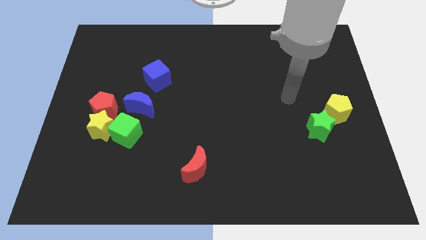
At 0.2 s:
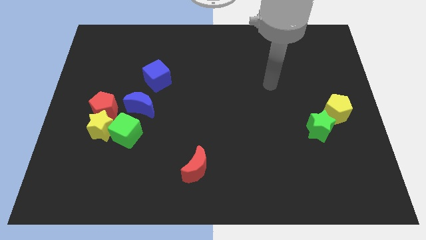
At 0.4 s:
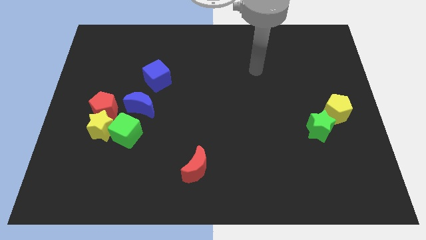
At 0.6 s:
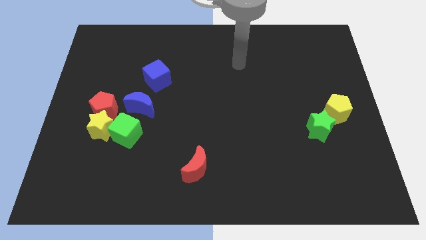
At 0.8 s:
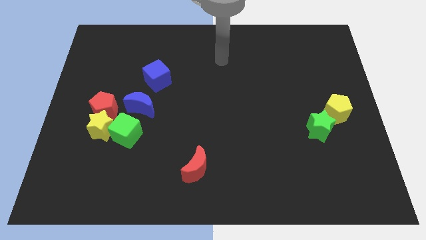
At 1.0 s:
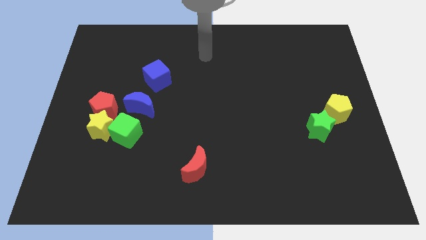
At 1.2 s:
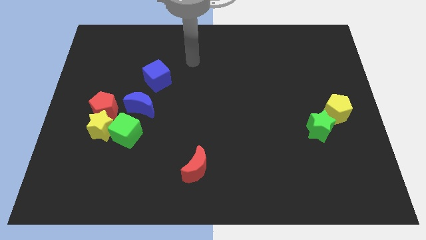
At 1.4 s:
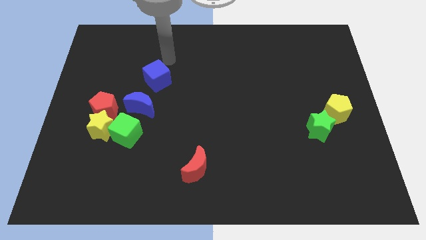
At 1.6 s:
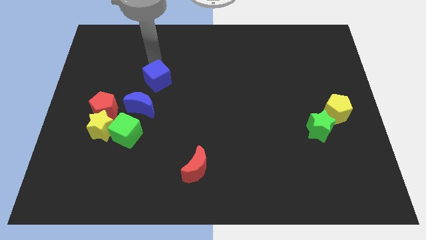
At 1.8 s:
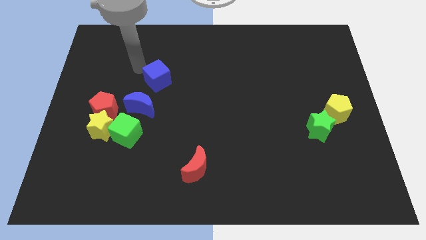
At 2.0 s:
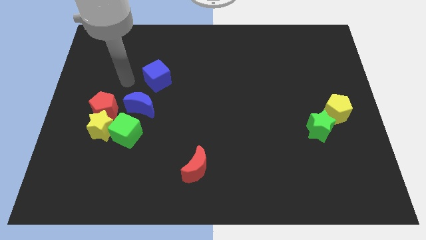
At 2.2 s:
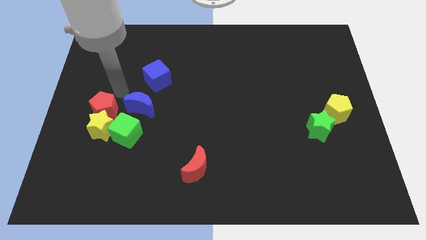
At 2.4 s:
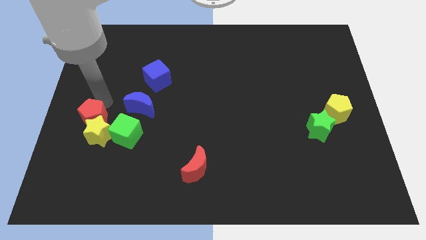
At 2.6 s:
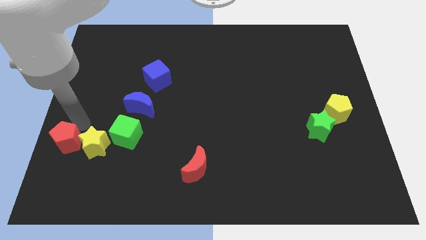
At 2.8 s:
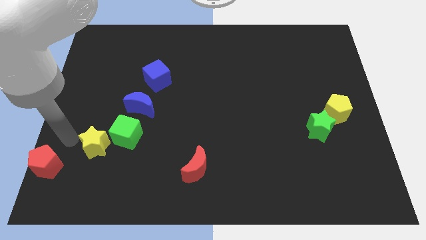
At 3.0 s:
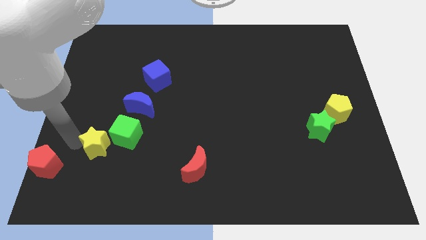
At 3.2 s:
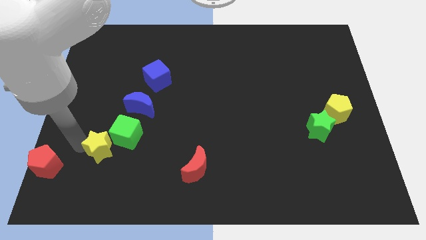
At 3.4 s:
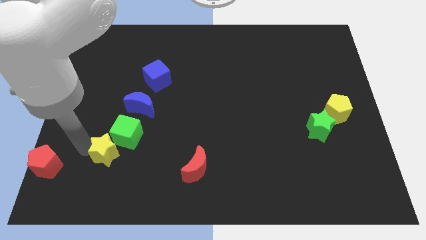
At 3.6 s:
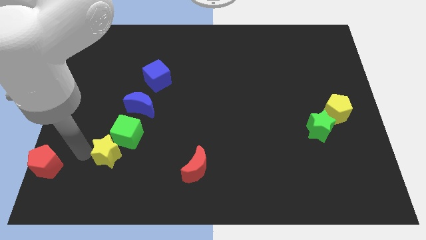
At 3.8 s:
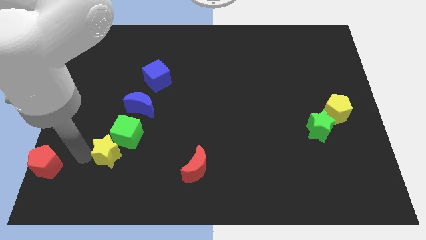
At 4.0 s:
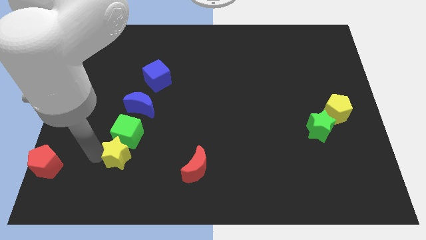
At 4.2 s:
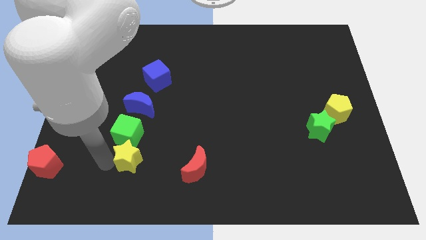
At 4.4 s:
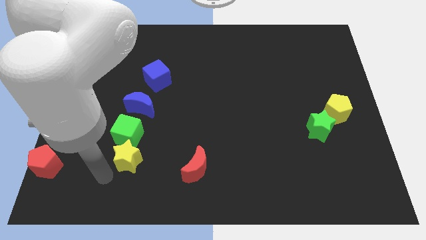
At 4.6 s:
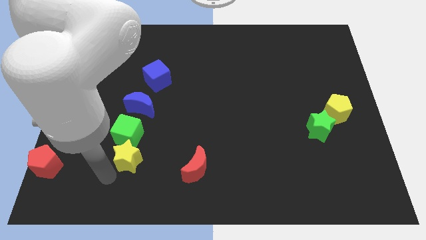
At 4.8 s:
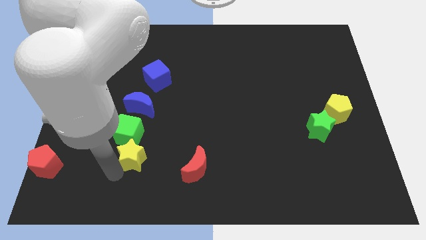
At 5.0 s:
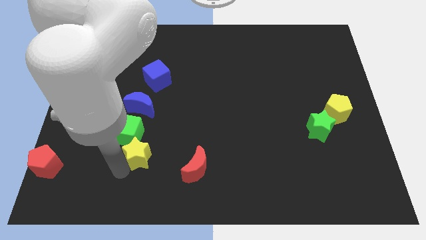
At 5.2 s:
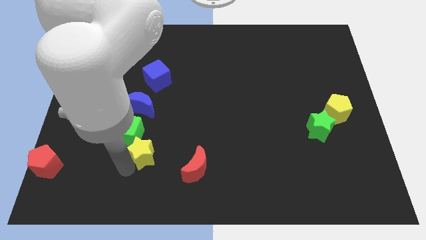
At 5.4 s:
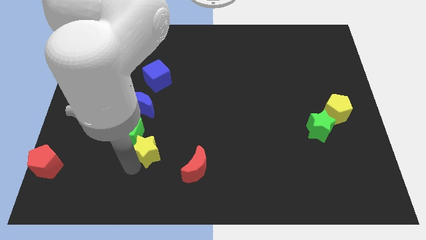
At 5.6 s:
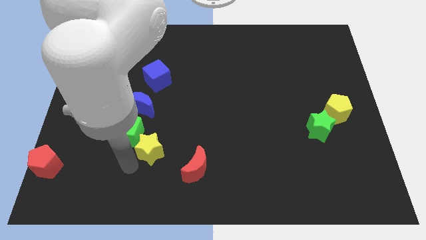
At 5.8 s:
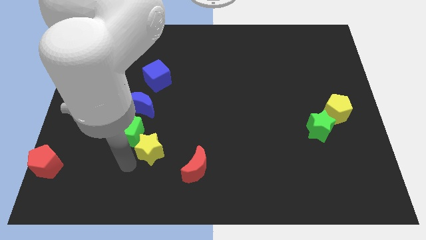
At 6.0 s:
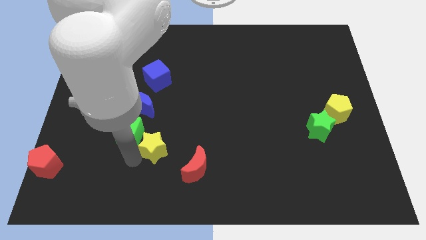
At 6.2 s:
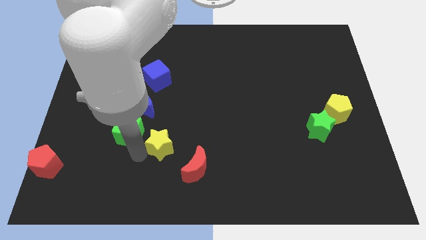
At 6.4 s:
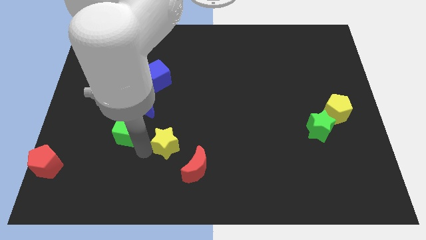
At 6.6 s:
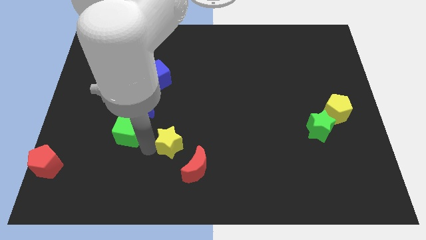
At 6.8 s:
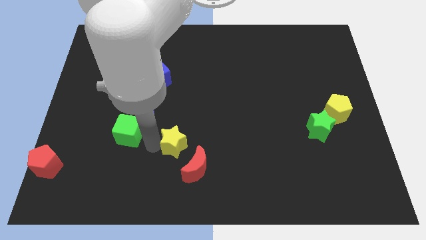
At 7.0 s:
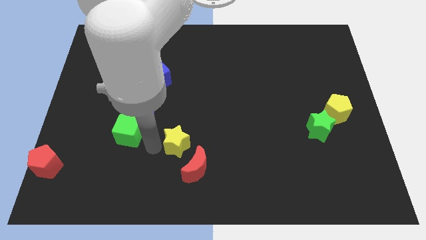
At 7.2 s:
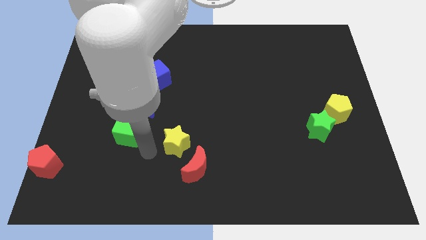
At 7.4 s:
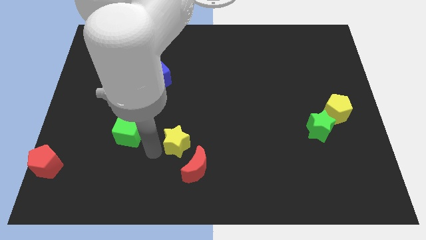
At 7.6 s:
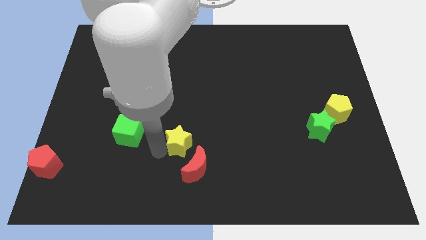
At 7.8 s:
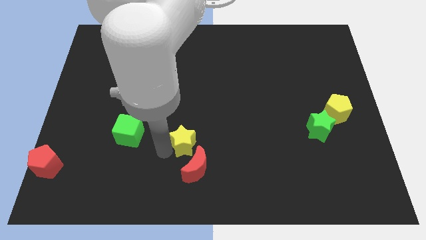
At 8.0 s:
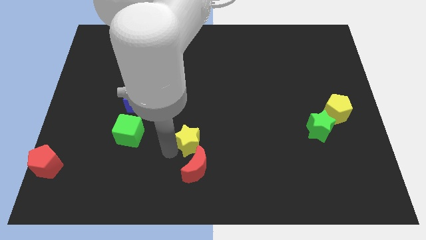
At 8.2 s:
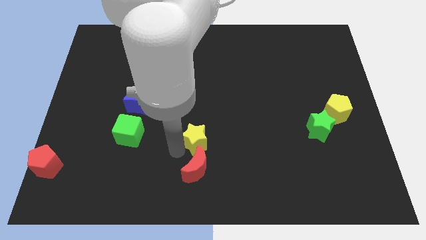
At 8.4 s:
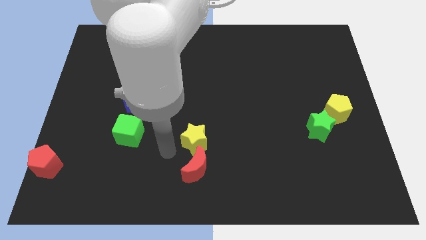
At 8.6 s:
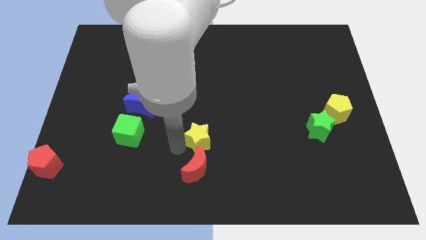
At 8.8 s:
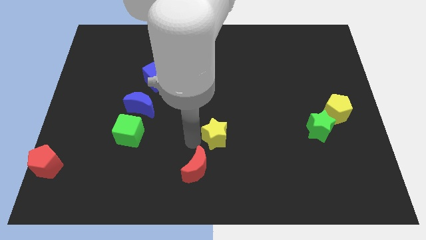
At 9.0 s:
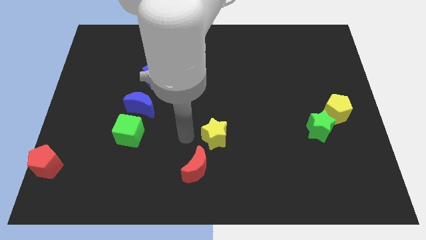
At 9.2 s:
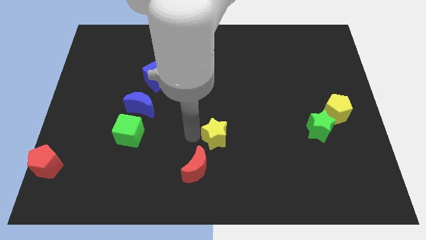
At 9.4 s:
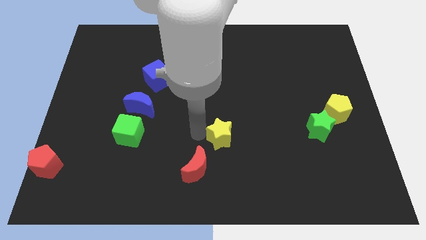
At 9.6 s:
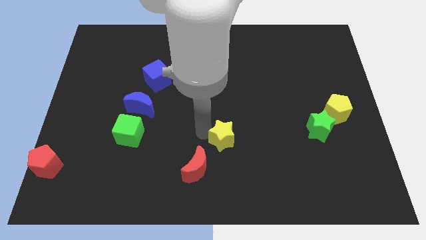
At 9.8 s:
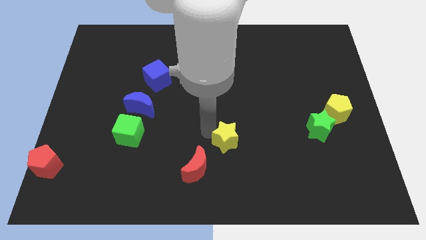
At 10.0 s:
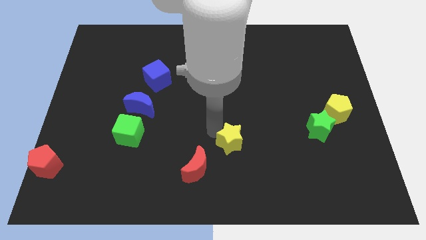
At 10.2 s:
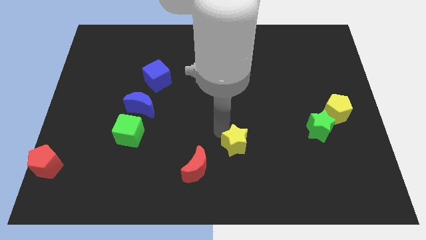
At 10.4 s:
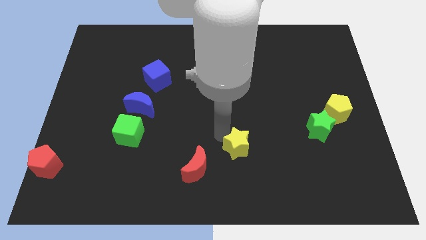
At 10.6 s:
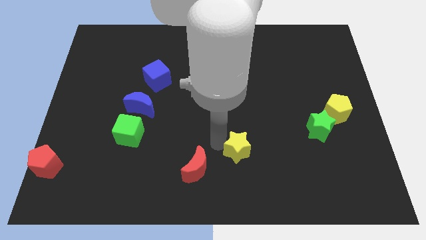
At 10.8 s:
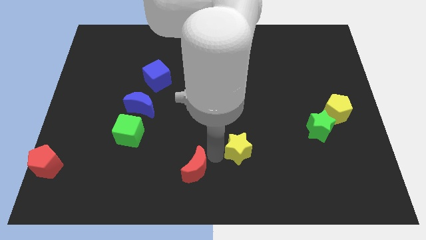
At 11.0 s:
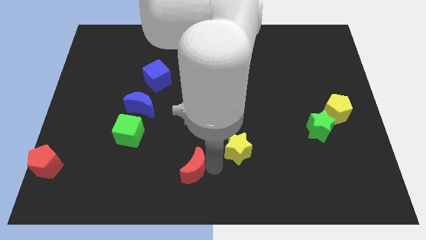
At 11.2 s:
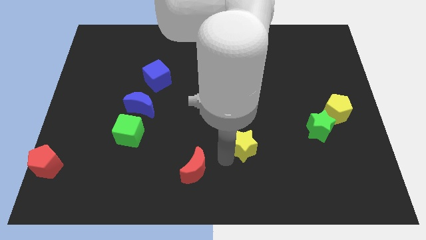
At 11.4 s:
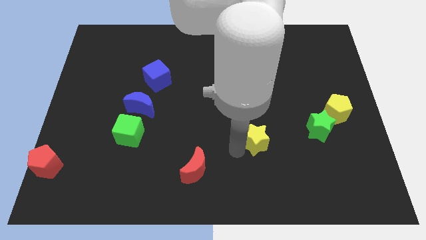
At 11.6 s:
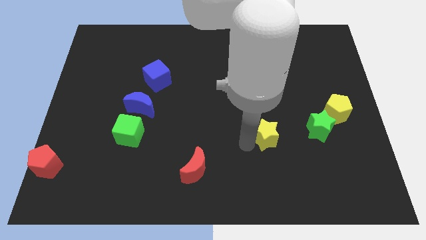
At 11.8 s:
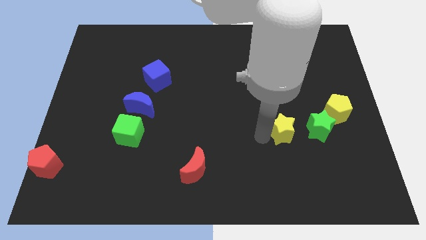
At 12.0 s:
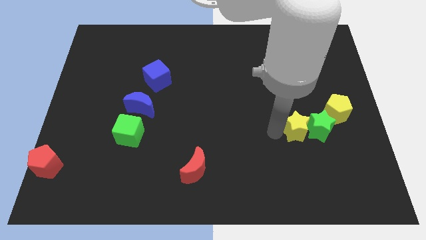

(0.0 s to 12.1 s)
put the yellow star next to the green star
